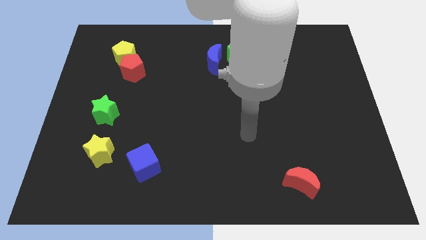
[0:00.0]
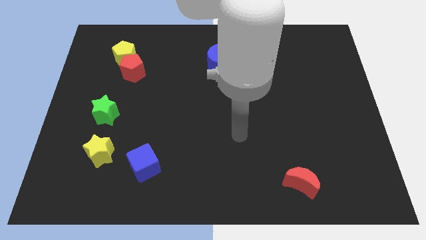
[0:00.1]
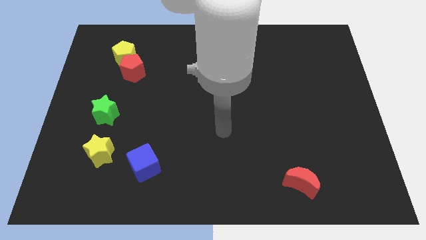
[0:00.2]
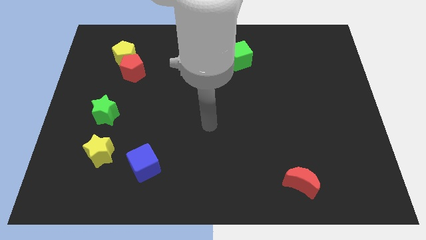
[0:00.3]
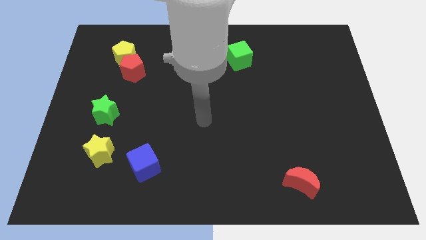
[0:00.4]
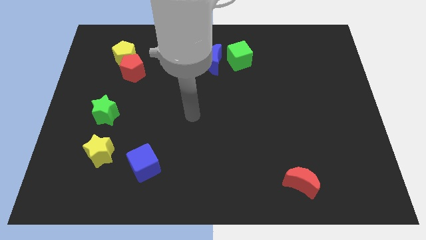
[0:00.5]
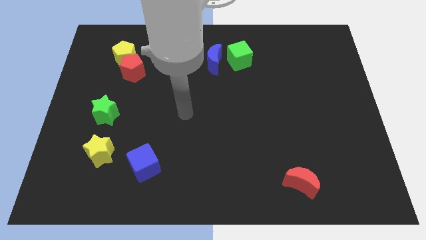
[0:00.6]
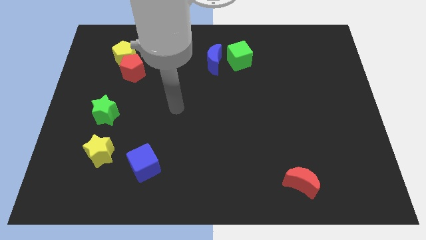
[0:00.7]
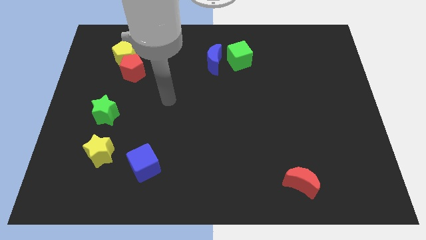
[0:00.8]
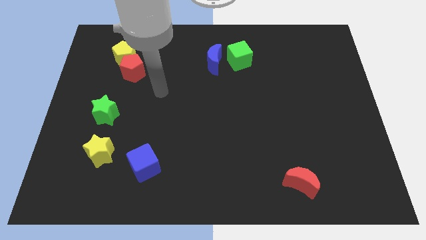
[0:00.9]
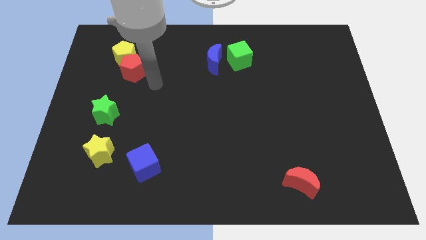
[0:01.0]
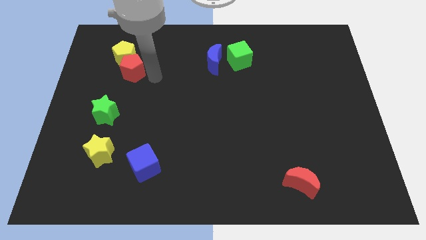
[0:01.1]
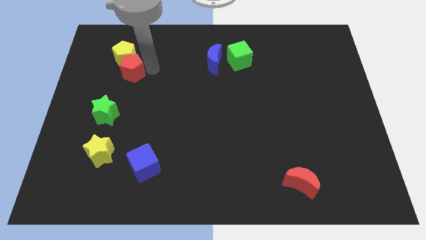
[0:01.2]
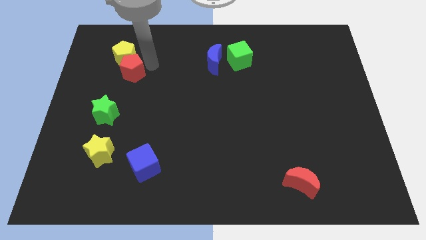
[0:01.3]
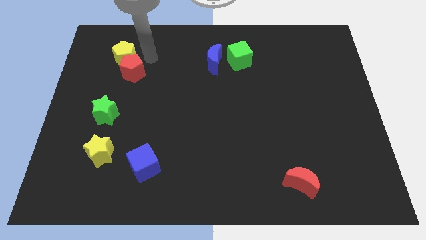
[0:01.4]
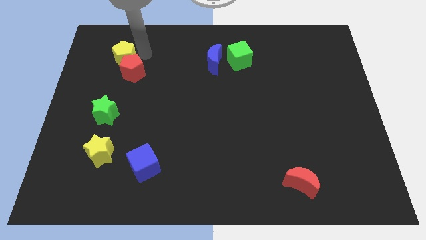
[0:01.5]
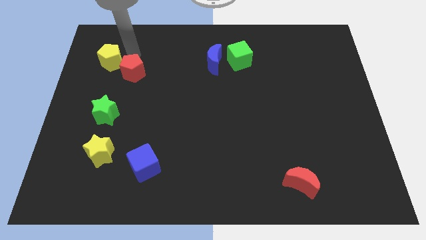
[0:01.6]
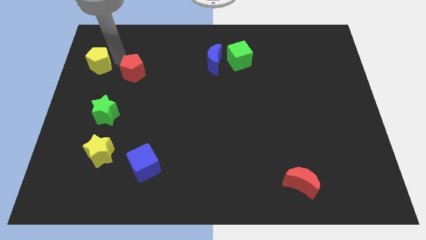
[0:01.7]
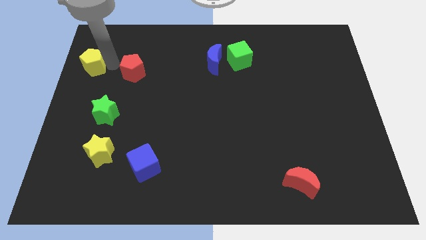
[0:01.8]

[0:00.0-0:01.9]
pull the red pentagon apart from the yellow pentagon

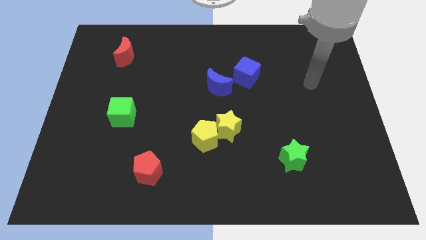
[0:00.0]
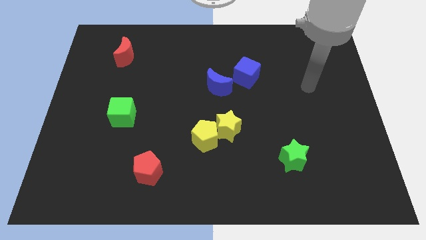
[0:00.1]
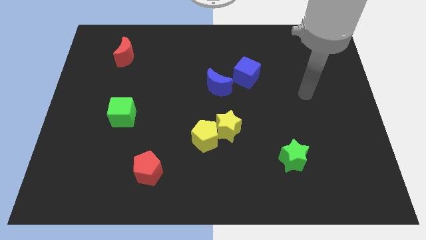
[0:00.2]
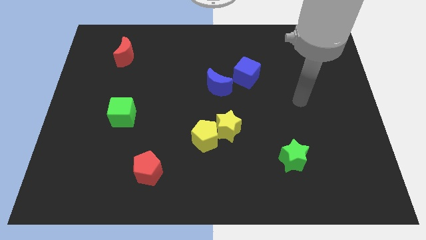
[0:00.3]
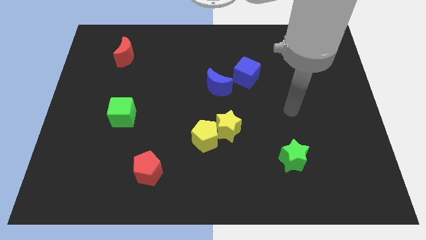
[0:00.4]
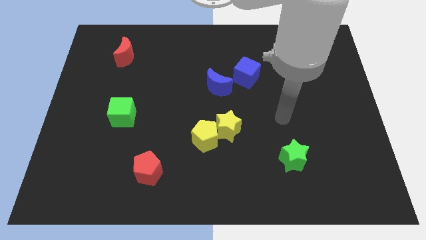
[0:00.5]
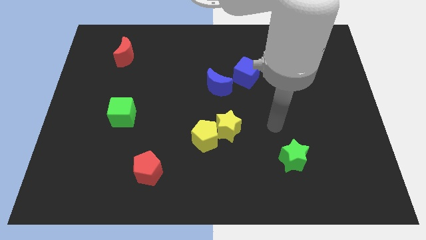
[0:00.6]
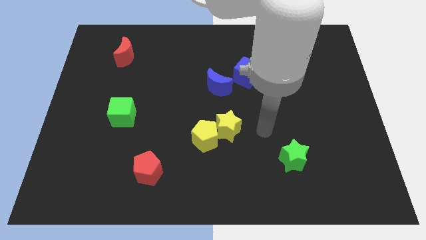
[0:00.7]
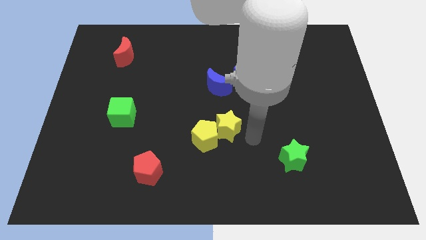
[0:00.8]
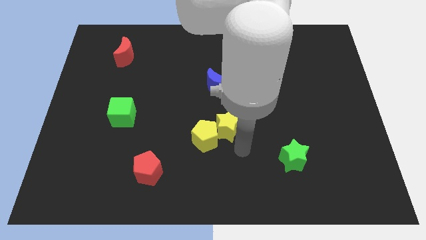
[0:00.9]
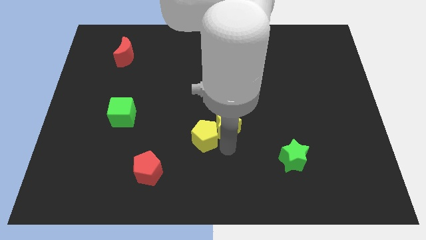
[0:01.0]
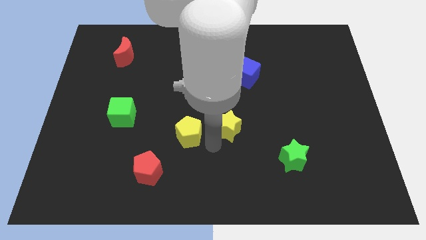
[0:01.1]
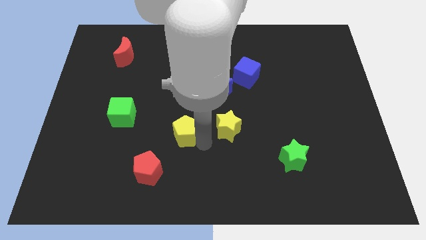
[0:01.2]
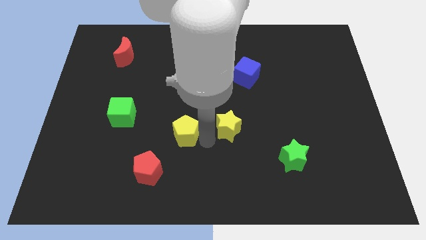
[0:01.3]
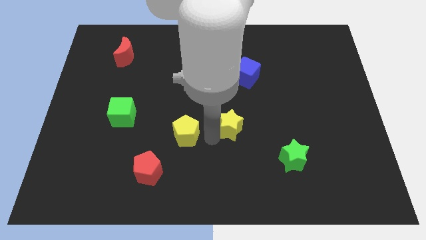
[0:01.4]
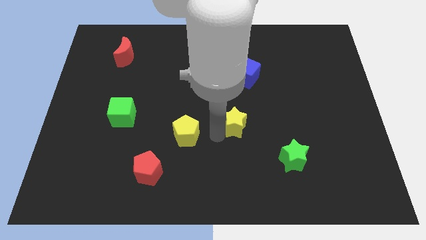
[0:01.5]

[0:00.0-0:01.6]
move the yellow star away from the yellow pentagon

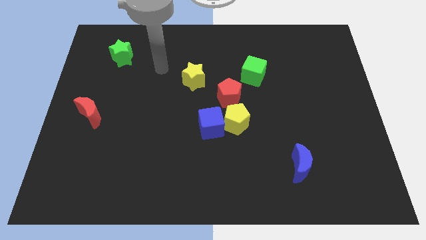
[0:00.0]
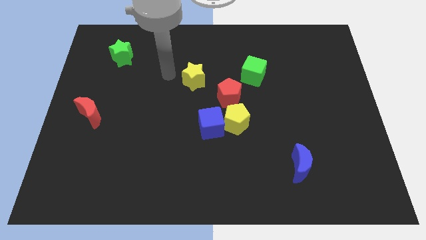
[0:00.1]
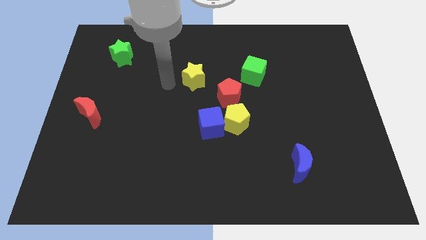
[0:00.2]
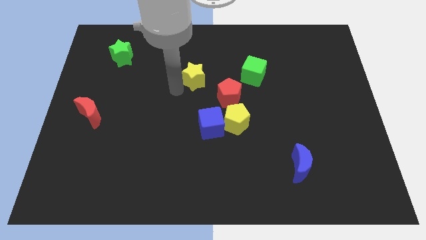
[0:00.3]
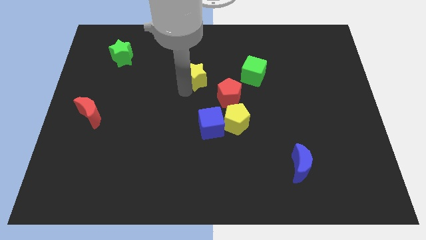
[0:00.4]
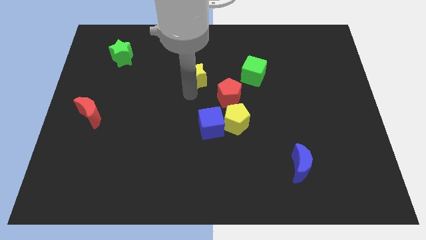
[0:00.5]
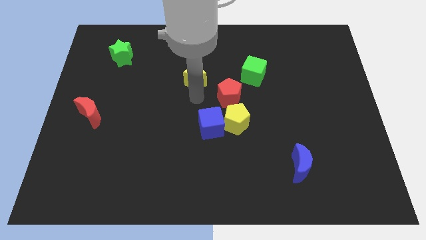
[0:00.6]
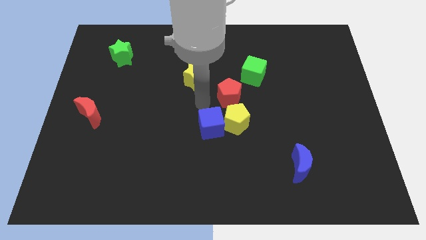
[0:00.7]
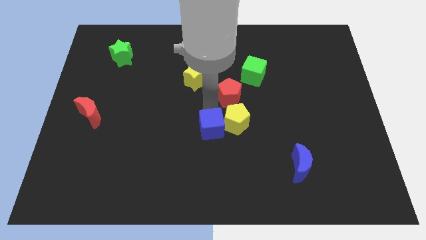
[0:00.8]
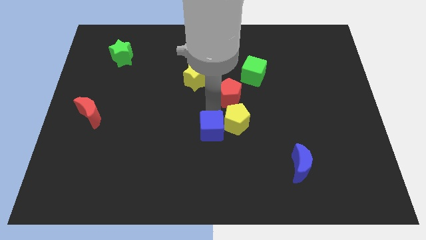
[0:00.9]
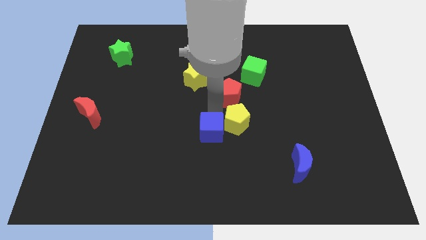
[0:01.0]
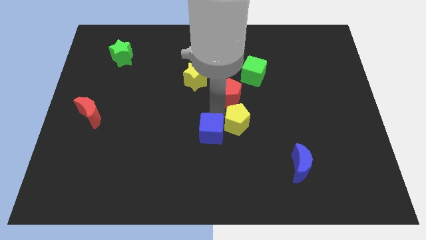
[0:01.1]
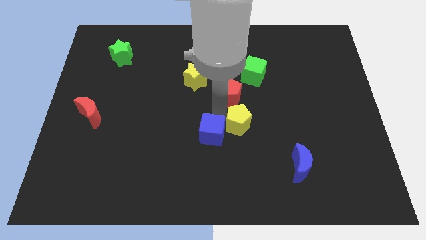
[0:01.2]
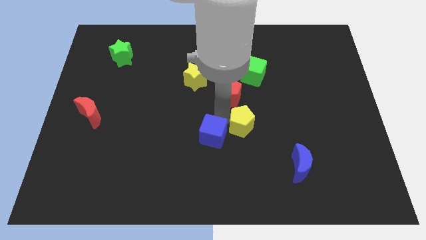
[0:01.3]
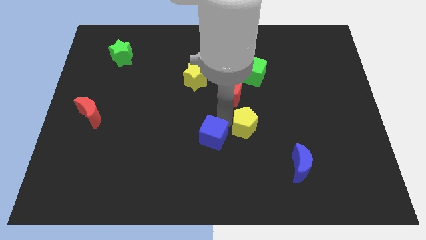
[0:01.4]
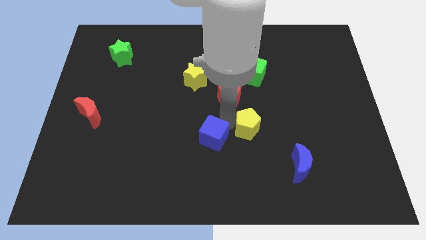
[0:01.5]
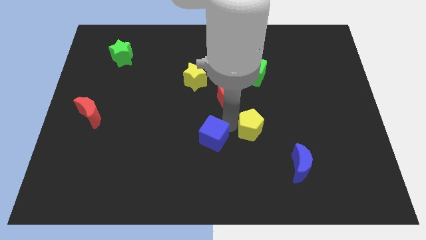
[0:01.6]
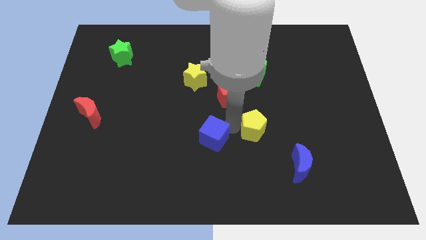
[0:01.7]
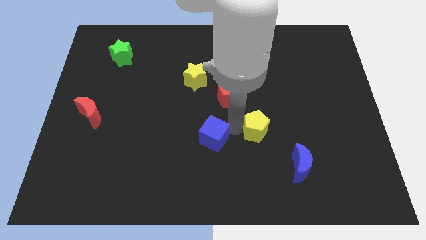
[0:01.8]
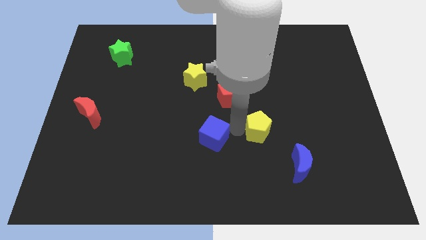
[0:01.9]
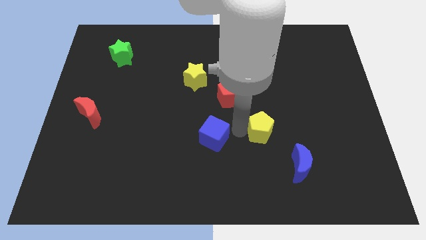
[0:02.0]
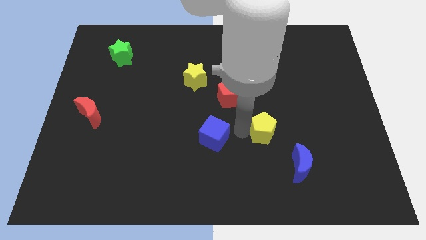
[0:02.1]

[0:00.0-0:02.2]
pull the yellow pentagon apart from the blue cube and red pentagon

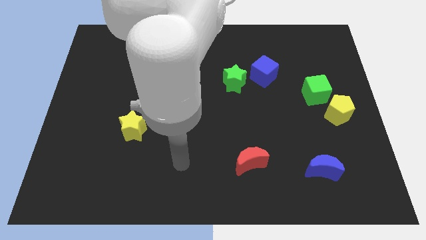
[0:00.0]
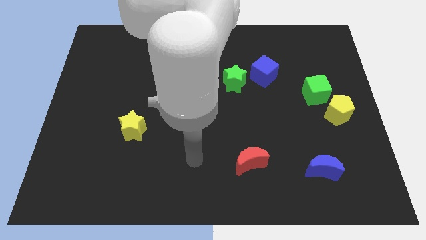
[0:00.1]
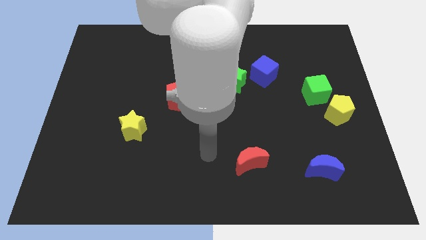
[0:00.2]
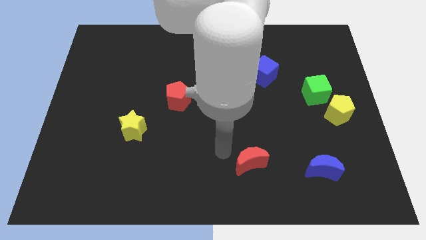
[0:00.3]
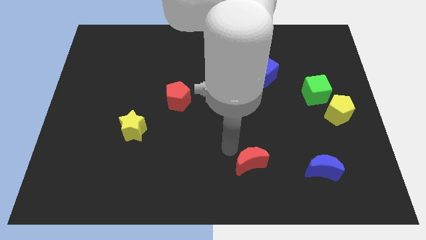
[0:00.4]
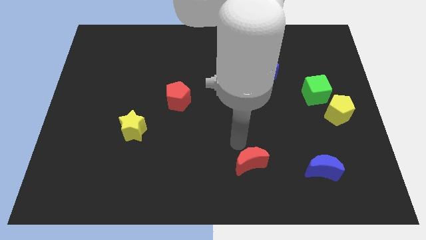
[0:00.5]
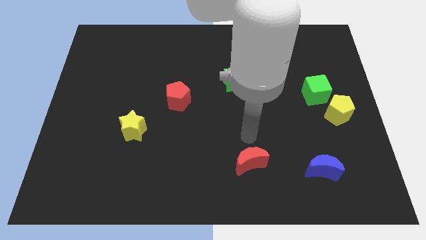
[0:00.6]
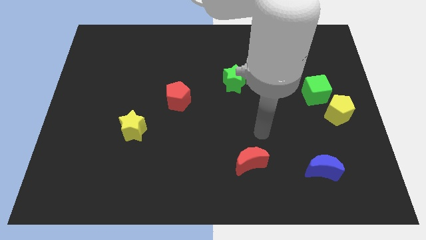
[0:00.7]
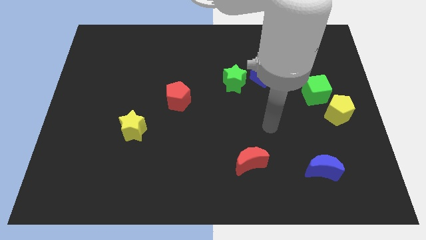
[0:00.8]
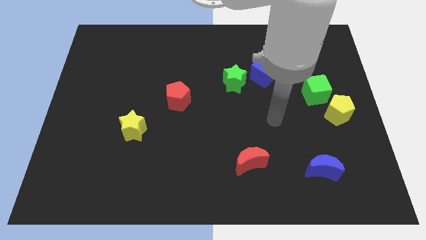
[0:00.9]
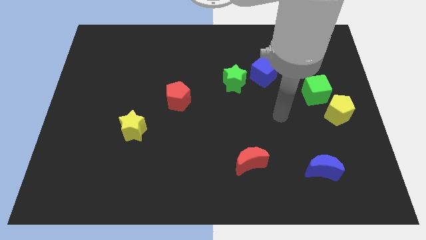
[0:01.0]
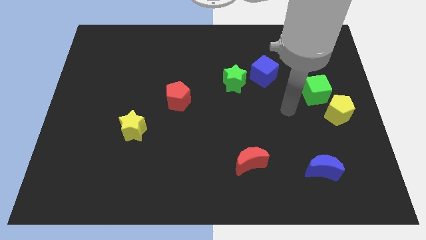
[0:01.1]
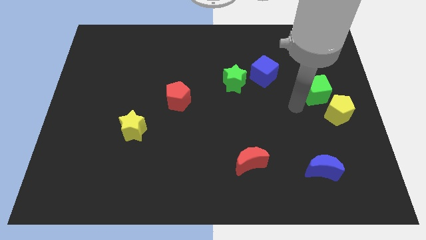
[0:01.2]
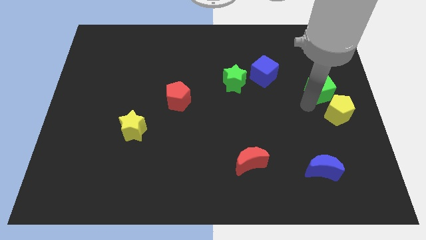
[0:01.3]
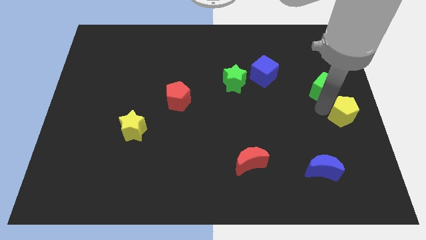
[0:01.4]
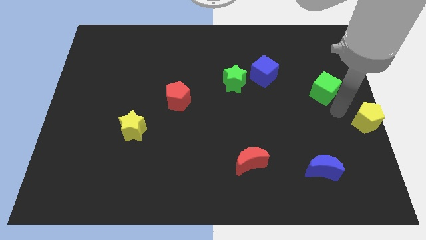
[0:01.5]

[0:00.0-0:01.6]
separate the green cube from the yellow pentagon

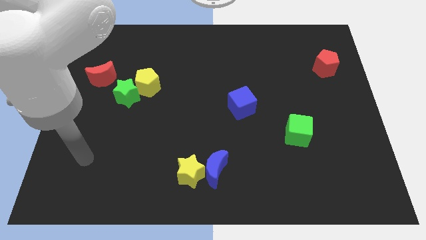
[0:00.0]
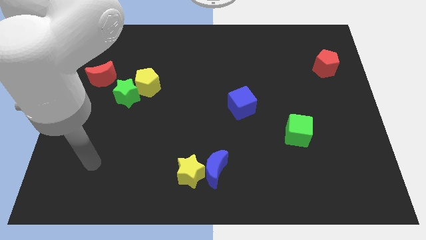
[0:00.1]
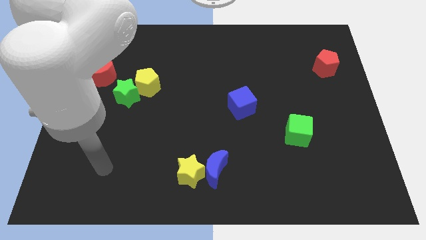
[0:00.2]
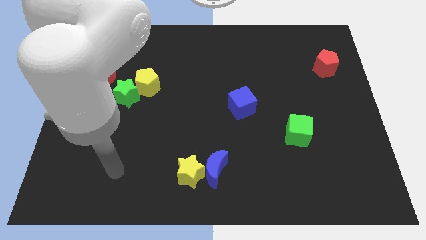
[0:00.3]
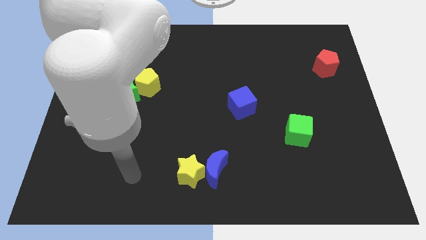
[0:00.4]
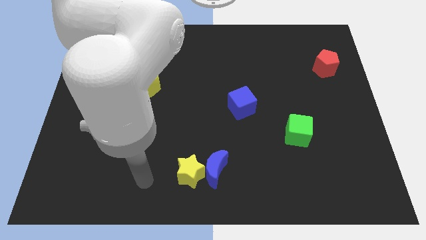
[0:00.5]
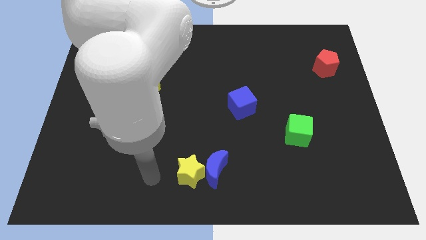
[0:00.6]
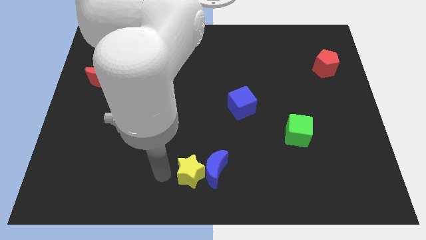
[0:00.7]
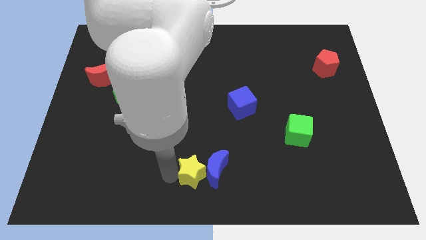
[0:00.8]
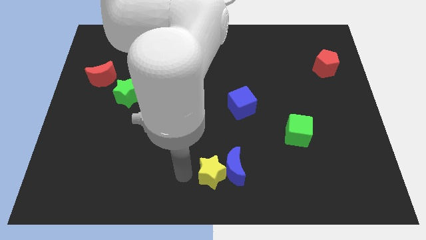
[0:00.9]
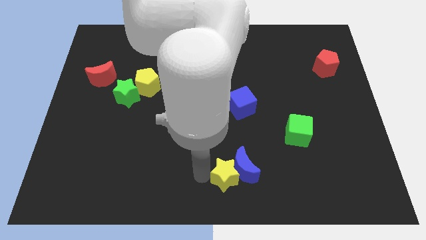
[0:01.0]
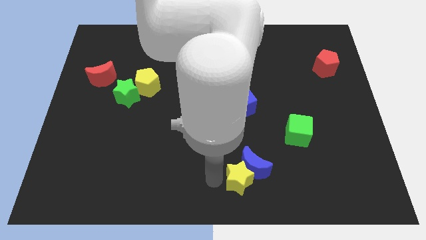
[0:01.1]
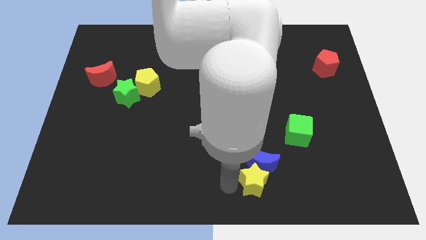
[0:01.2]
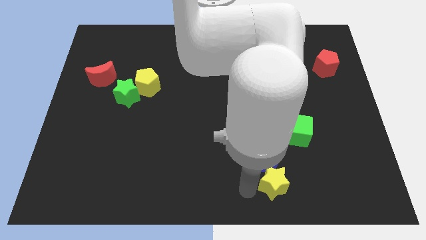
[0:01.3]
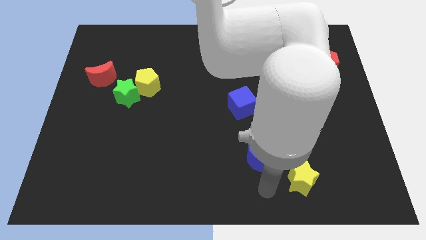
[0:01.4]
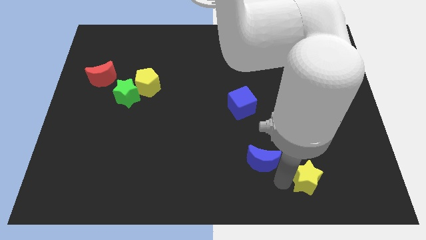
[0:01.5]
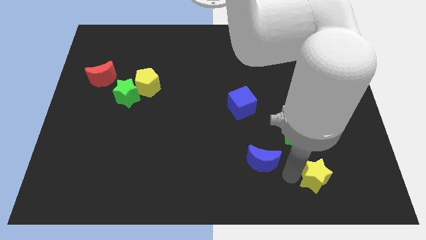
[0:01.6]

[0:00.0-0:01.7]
move the blue moon away from the yellow star

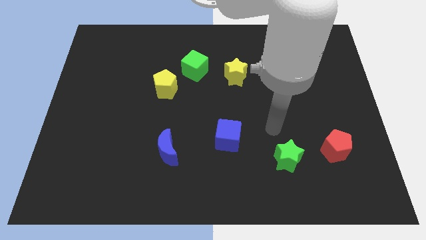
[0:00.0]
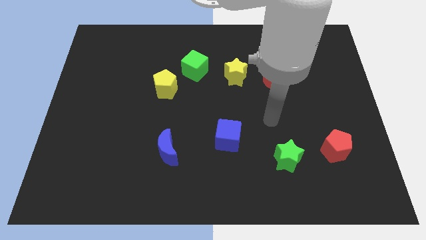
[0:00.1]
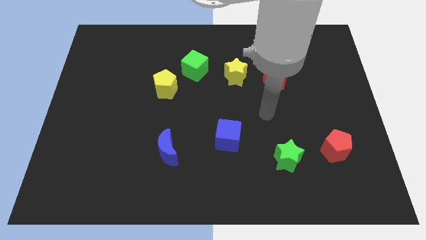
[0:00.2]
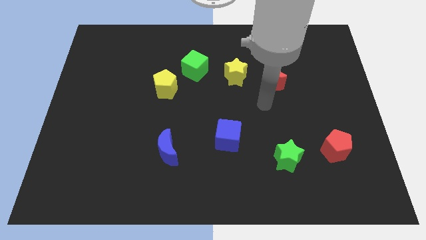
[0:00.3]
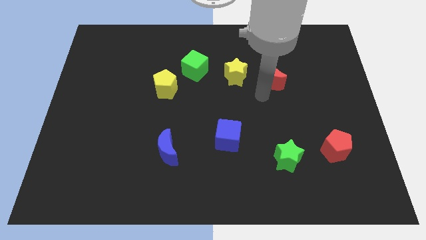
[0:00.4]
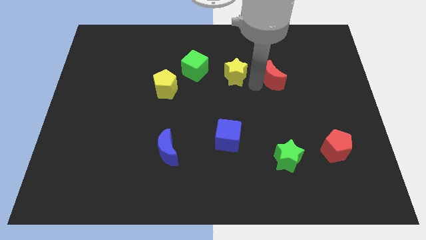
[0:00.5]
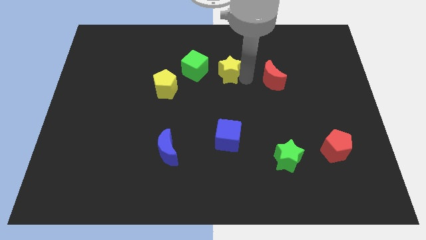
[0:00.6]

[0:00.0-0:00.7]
separate the red moon from the yellow star
